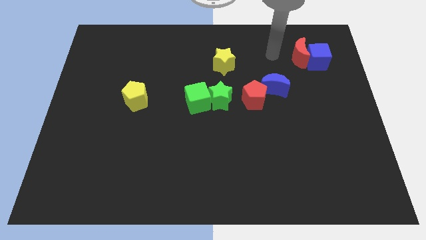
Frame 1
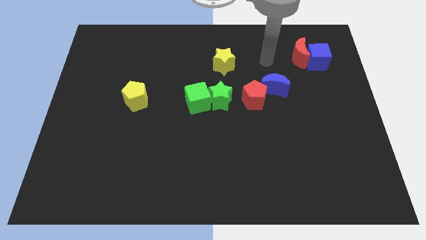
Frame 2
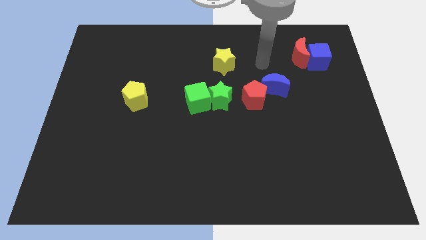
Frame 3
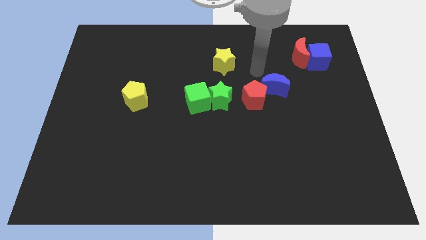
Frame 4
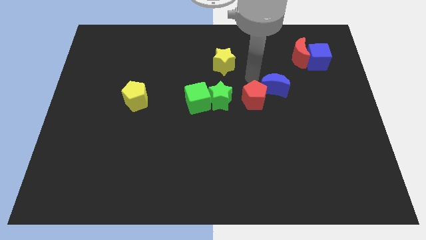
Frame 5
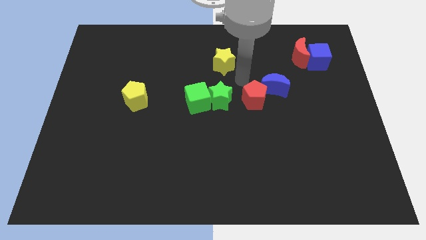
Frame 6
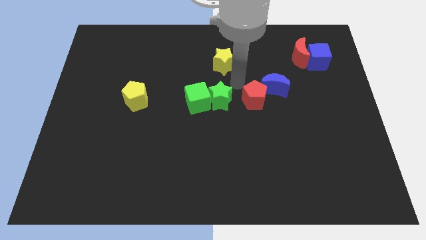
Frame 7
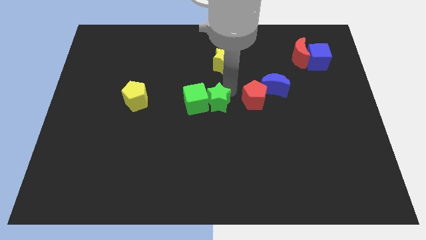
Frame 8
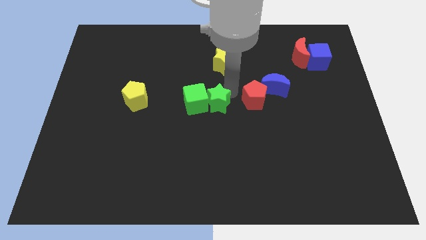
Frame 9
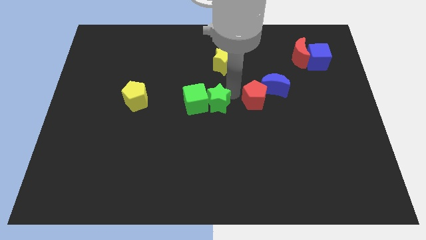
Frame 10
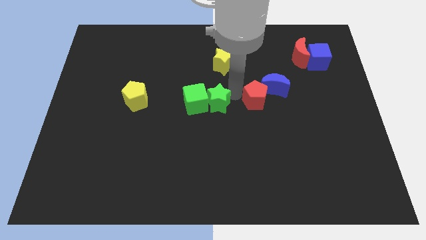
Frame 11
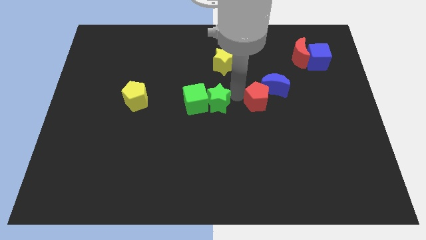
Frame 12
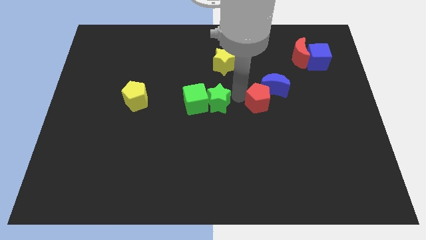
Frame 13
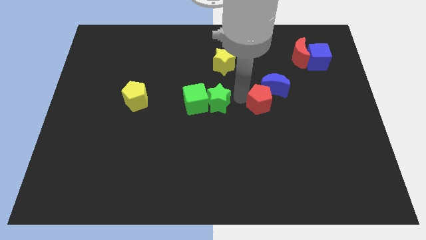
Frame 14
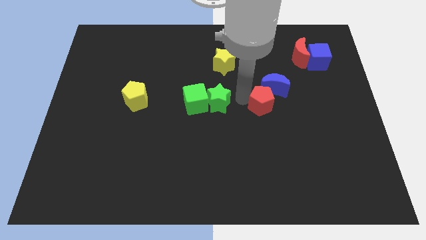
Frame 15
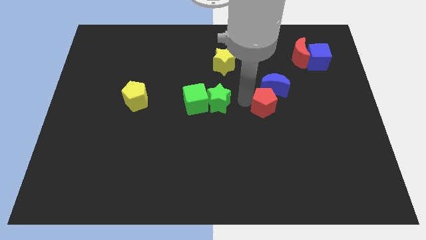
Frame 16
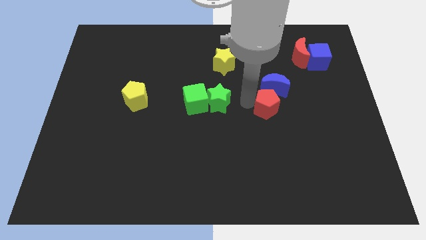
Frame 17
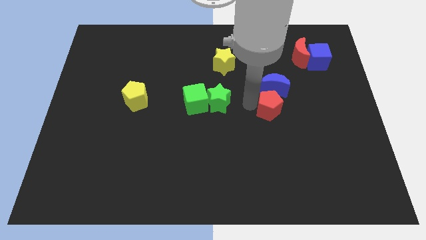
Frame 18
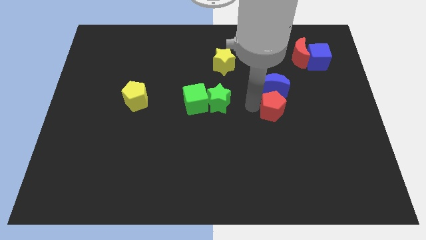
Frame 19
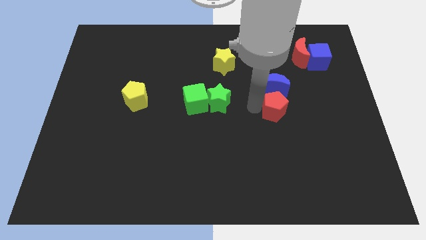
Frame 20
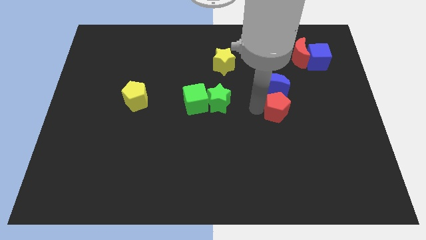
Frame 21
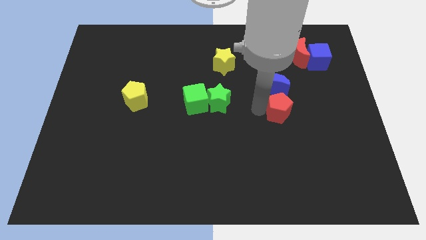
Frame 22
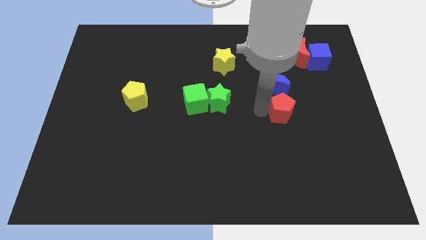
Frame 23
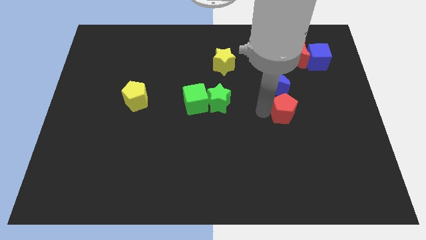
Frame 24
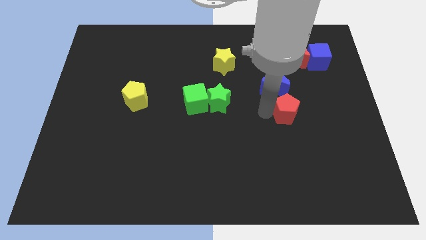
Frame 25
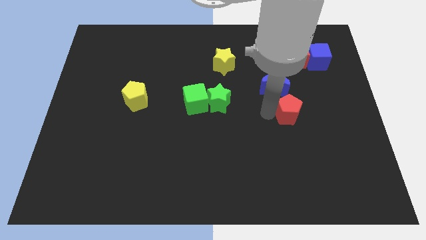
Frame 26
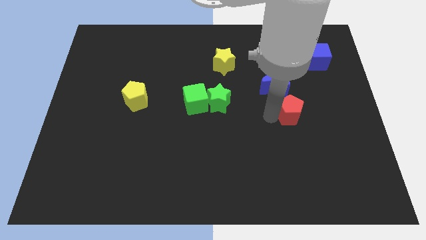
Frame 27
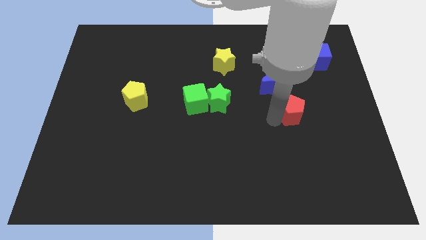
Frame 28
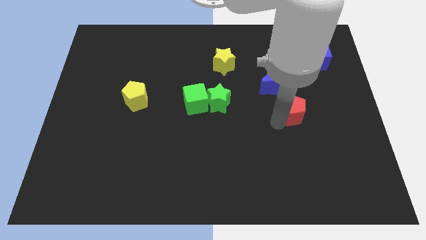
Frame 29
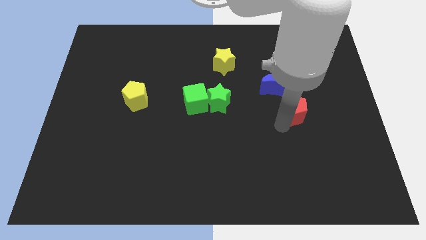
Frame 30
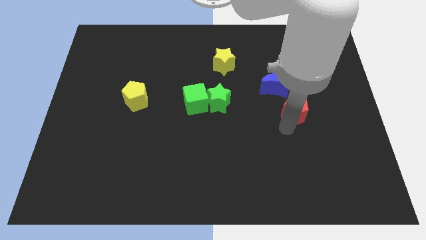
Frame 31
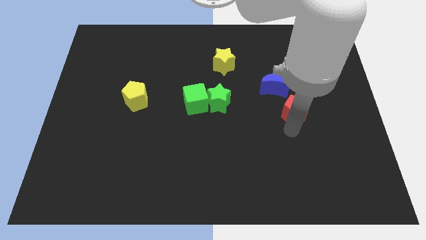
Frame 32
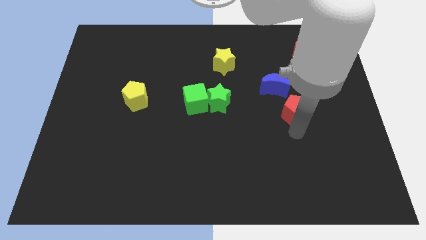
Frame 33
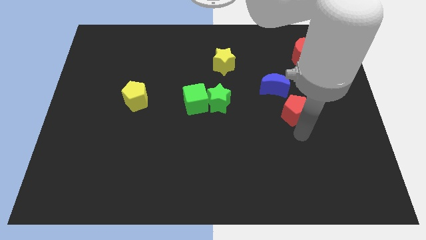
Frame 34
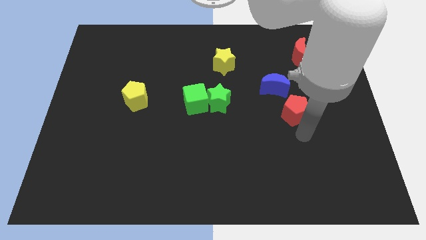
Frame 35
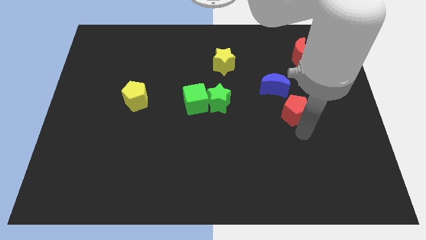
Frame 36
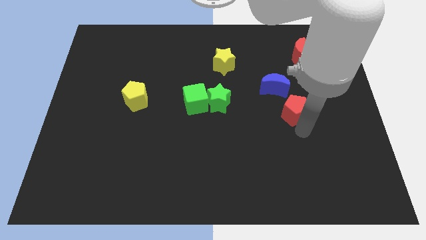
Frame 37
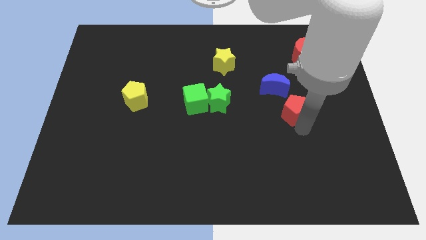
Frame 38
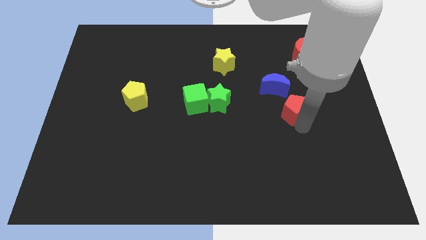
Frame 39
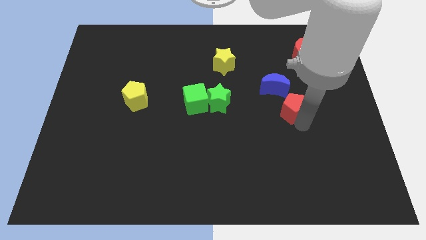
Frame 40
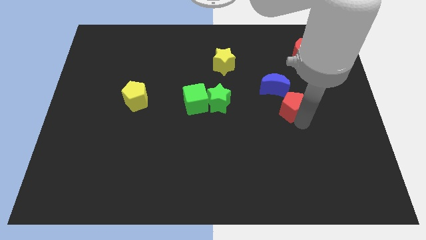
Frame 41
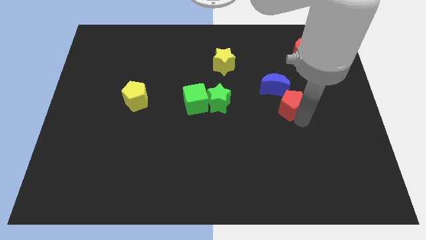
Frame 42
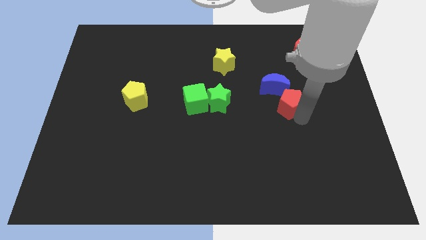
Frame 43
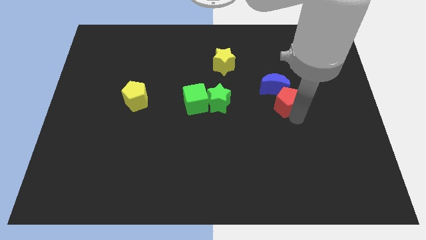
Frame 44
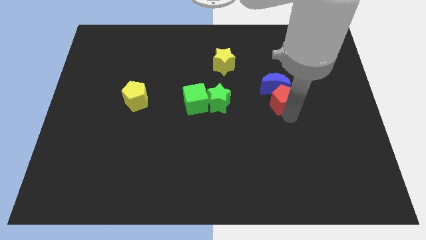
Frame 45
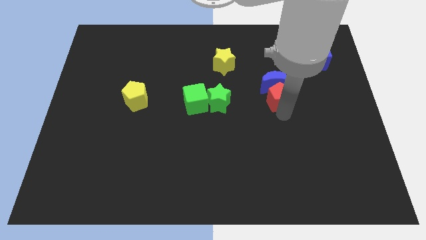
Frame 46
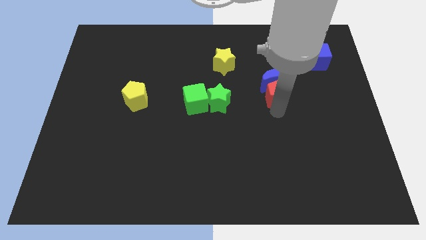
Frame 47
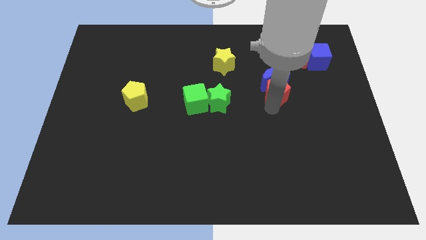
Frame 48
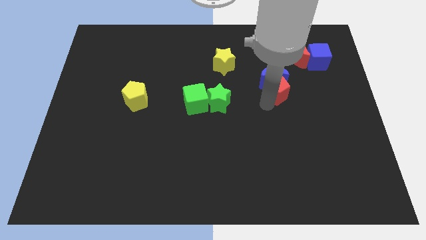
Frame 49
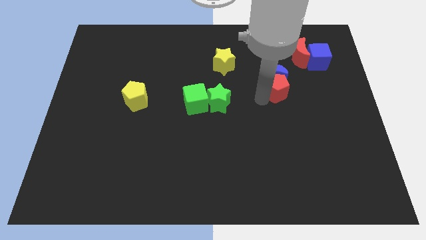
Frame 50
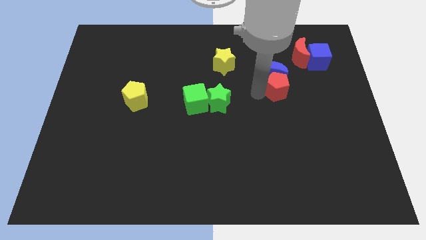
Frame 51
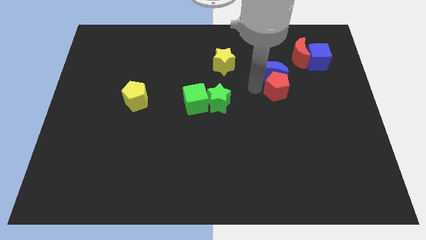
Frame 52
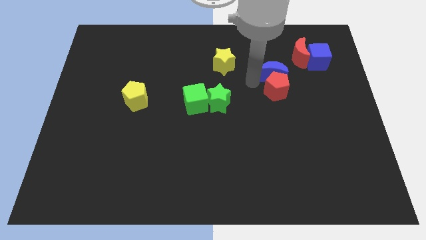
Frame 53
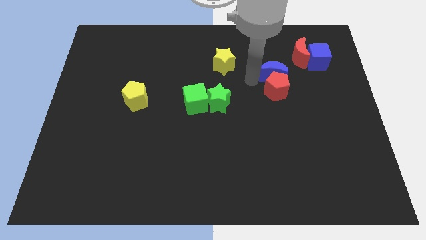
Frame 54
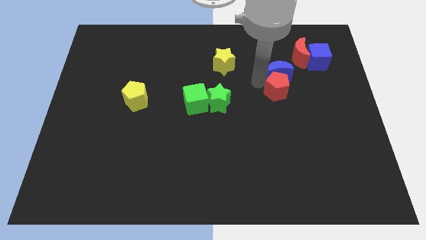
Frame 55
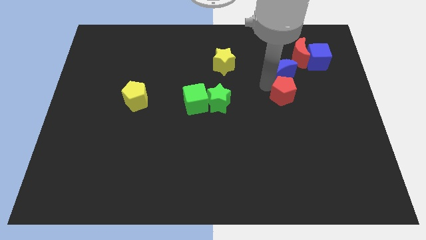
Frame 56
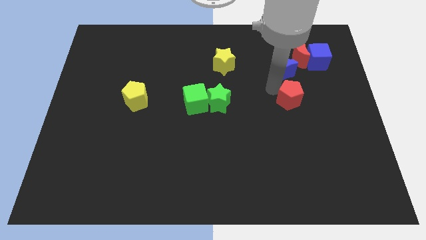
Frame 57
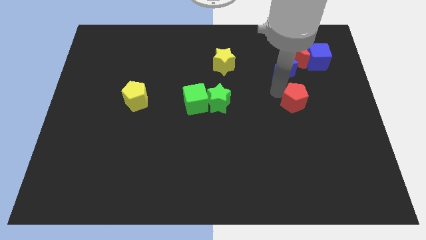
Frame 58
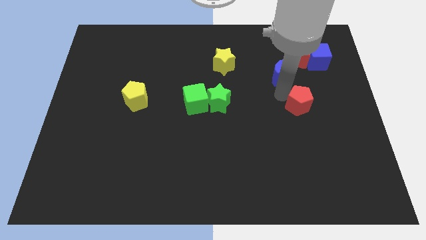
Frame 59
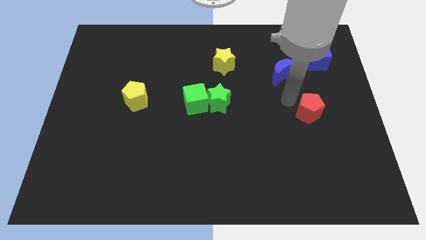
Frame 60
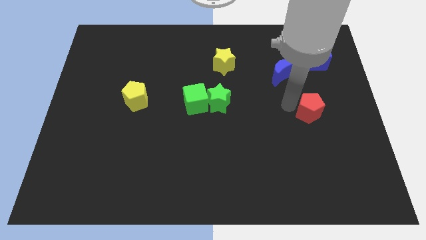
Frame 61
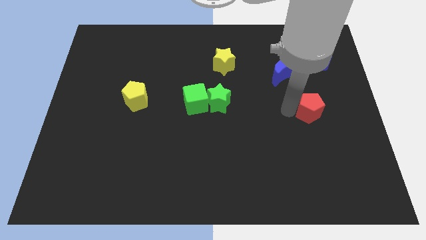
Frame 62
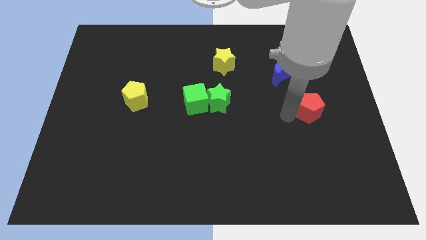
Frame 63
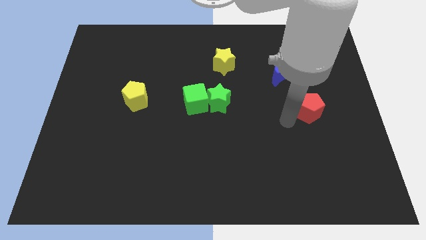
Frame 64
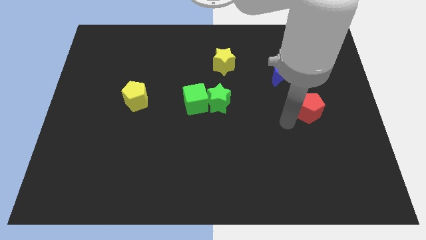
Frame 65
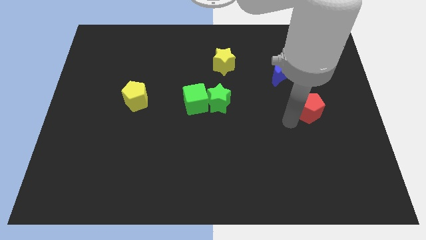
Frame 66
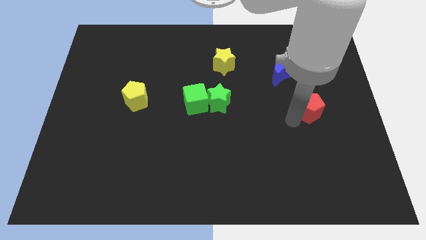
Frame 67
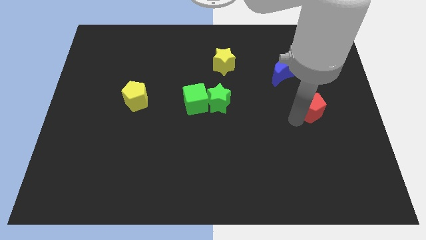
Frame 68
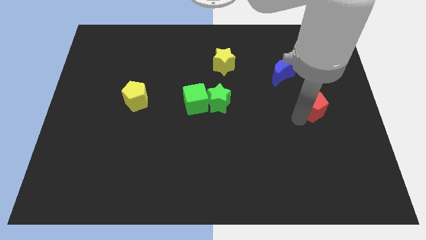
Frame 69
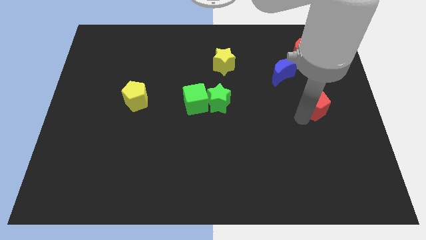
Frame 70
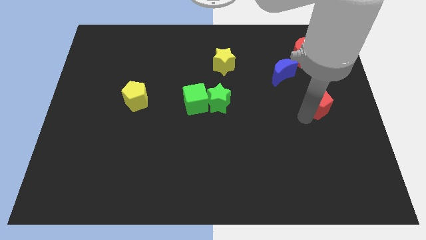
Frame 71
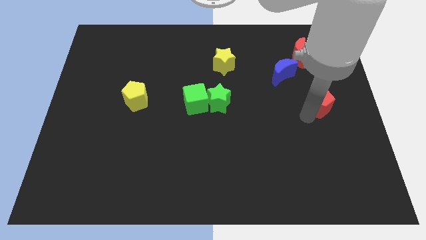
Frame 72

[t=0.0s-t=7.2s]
slide the red pentagon to the center right

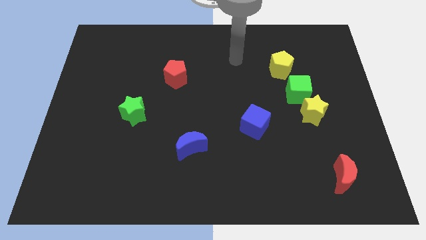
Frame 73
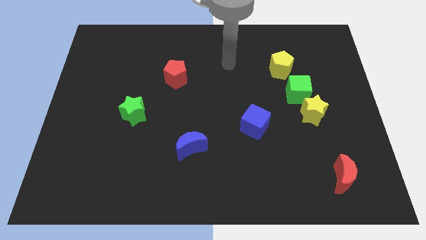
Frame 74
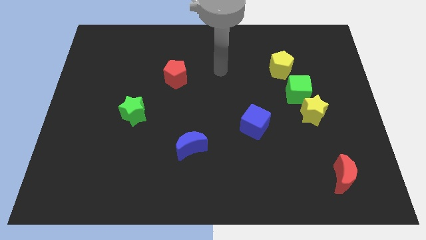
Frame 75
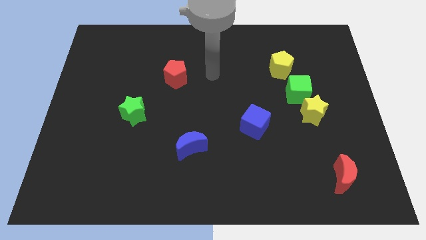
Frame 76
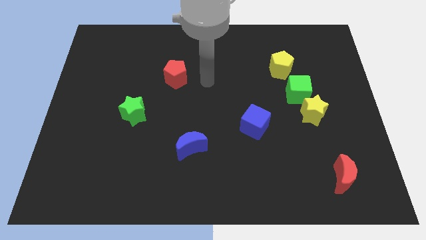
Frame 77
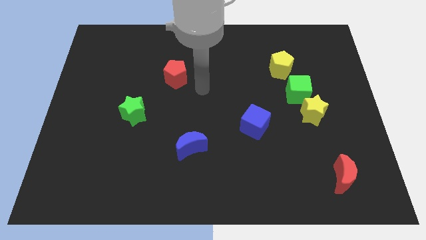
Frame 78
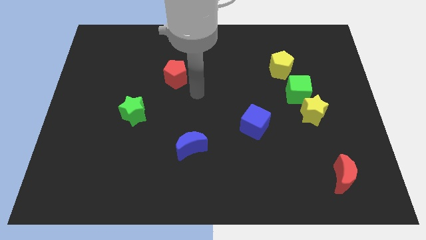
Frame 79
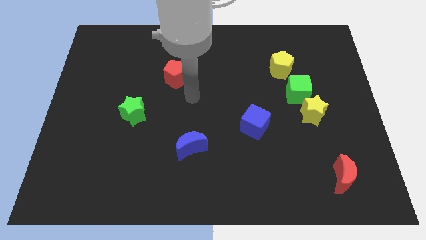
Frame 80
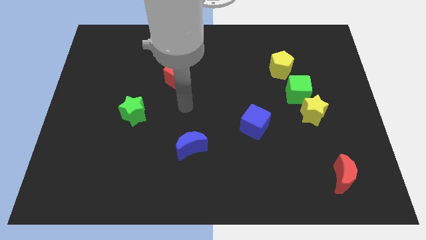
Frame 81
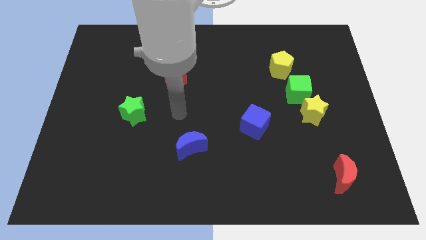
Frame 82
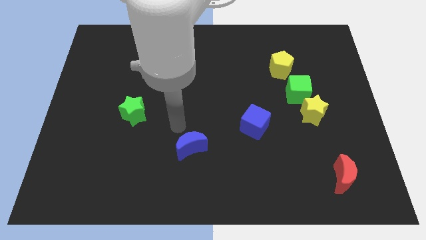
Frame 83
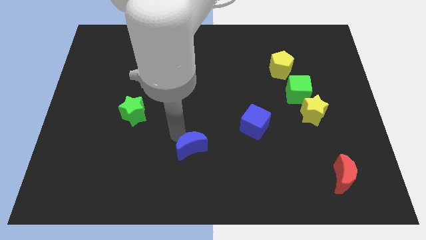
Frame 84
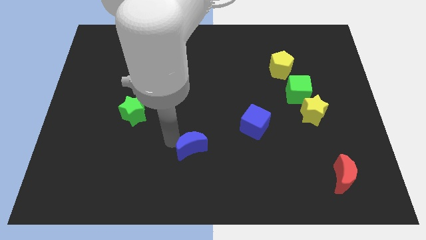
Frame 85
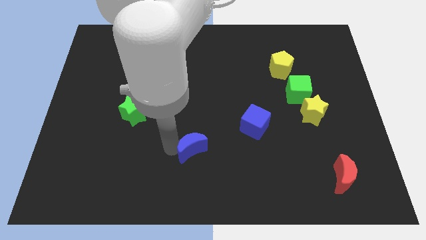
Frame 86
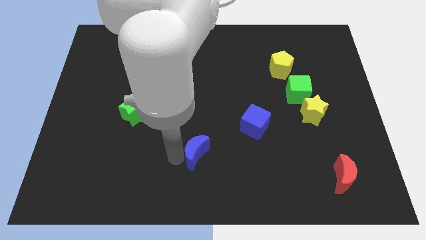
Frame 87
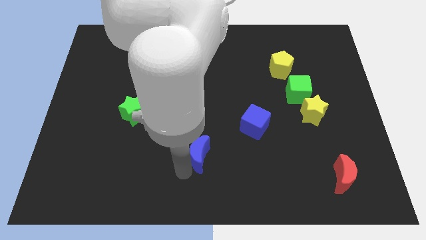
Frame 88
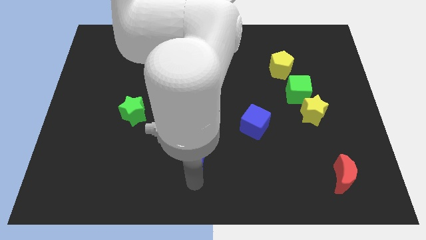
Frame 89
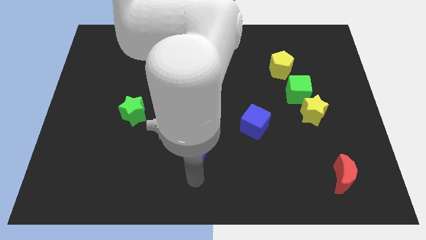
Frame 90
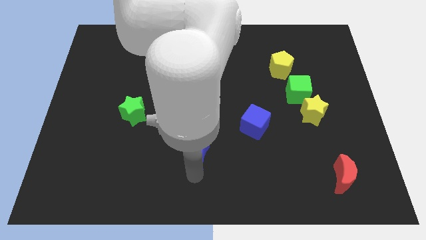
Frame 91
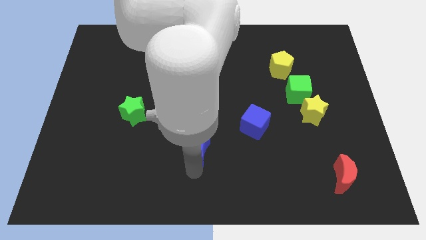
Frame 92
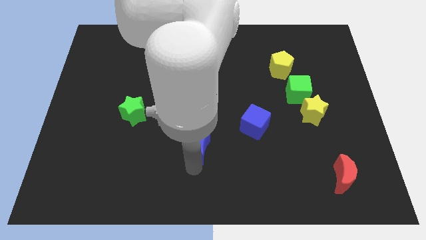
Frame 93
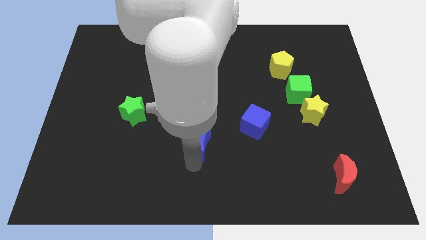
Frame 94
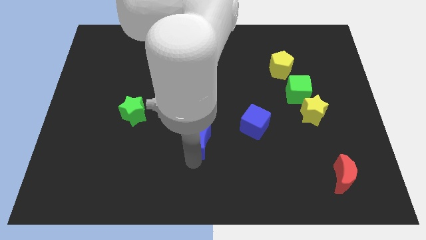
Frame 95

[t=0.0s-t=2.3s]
push the blue moon to the middle of the board
